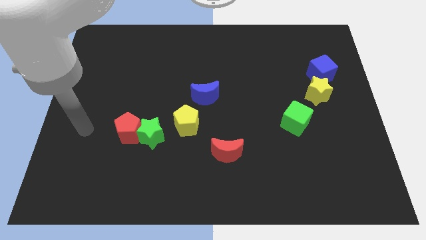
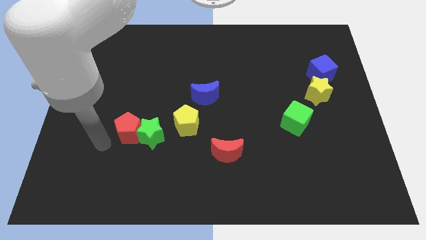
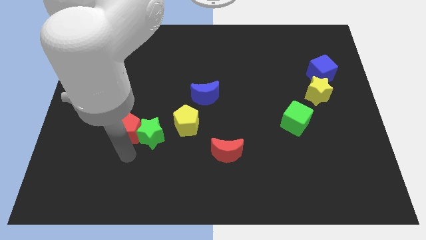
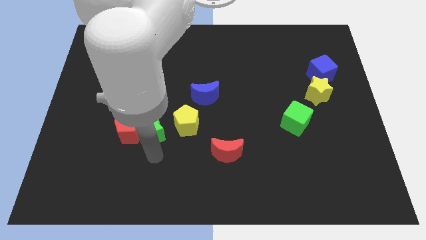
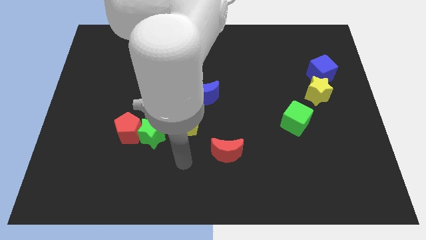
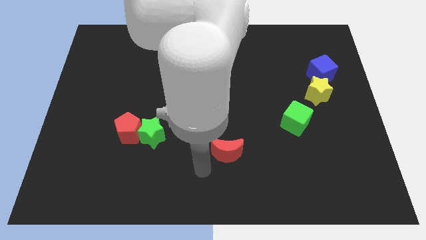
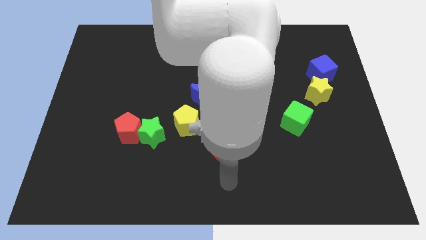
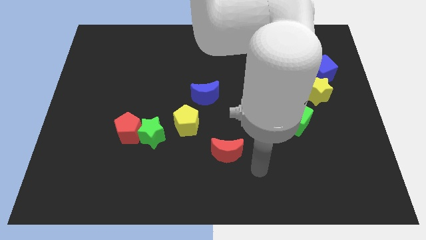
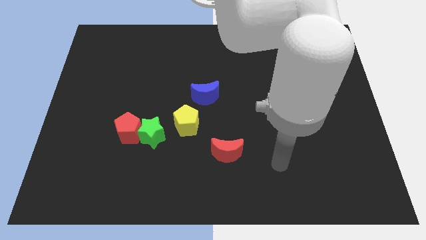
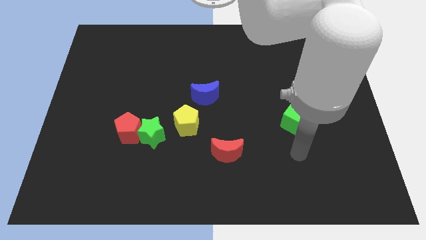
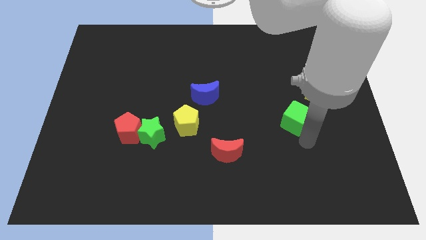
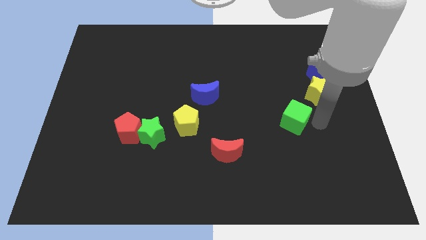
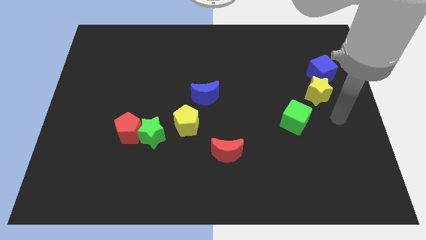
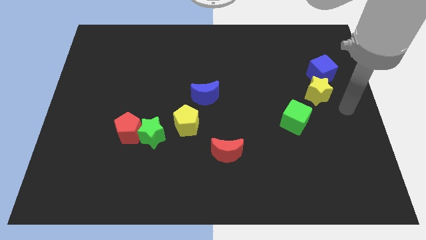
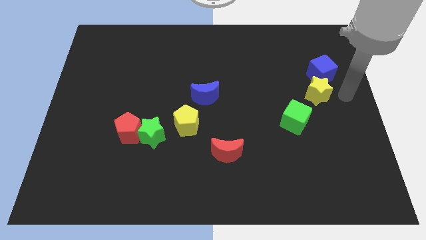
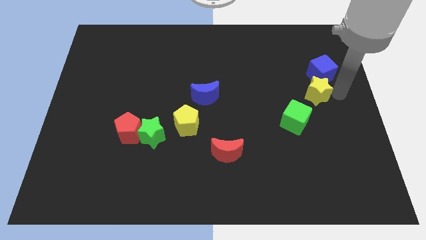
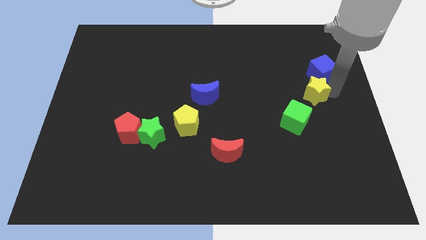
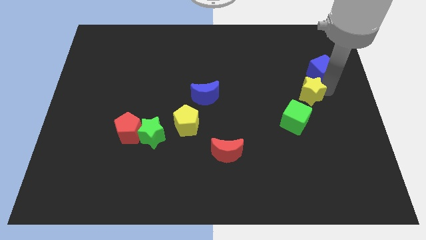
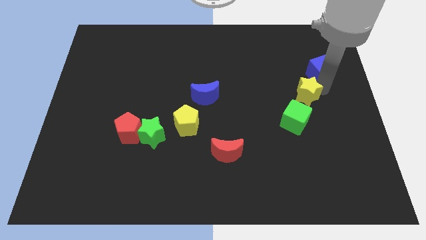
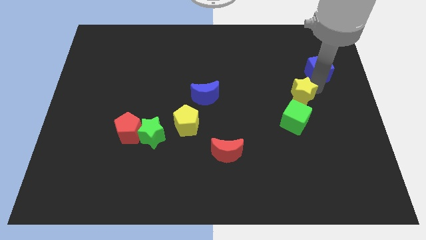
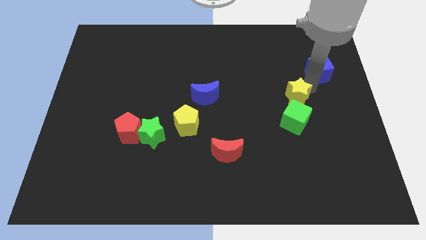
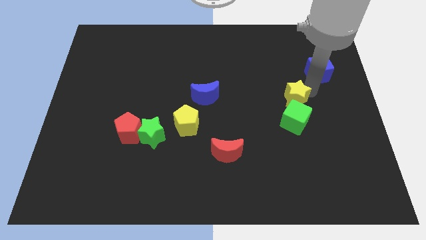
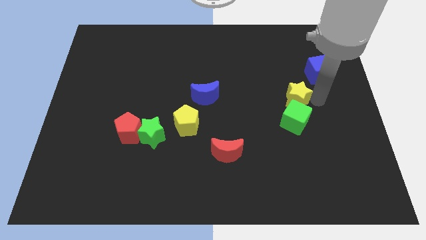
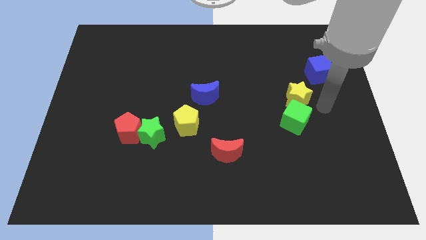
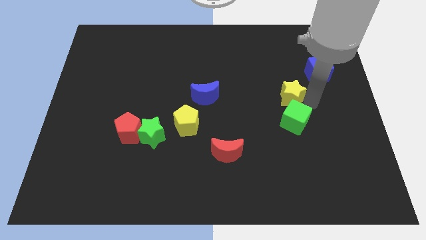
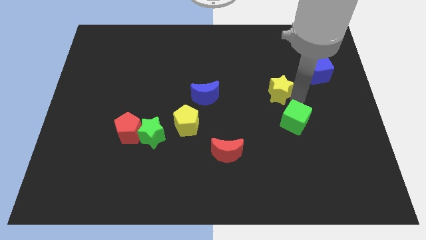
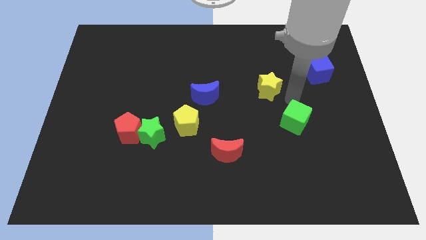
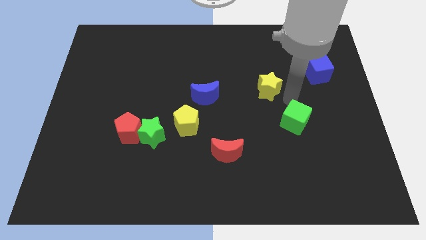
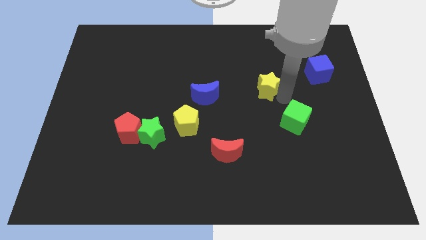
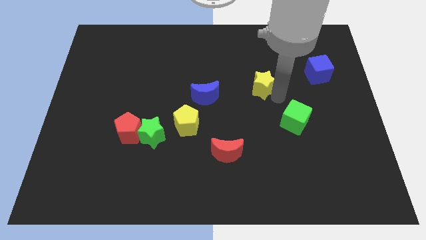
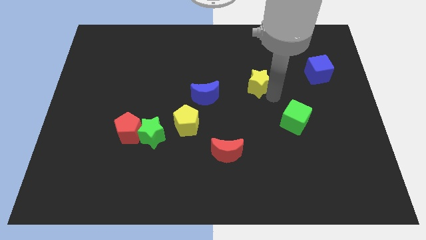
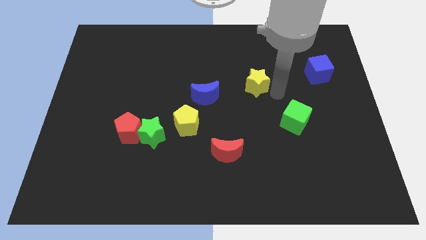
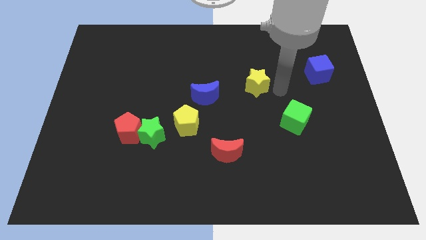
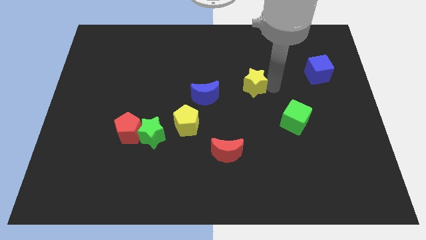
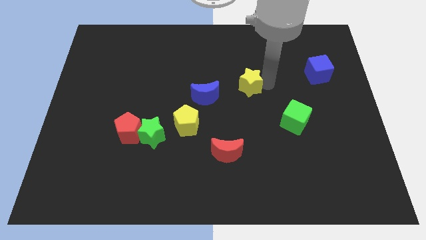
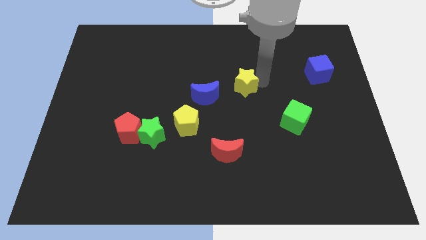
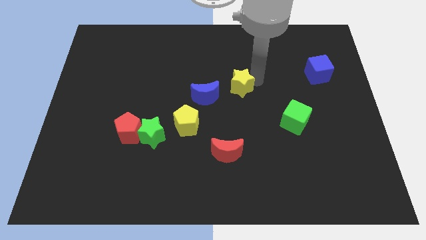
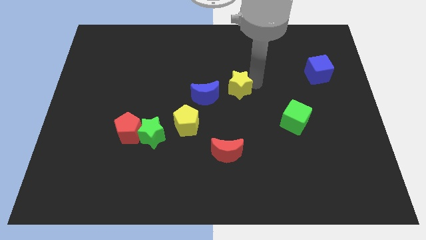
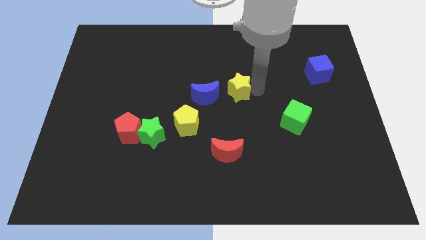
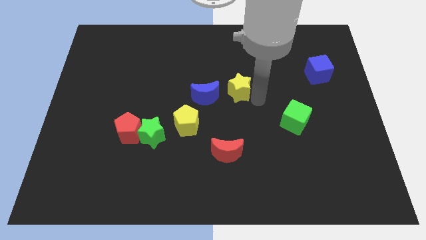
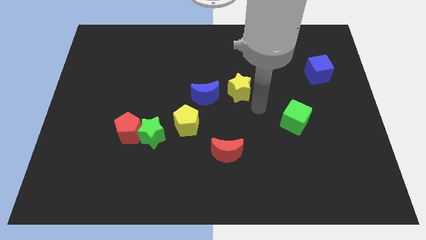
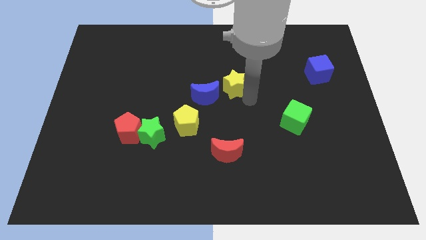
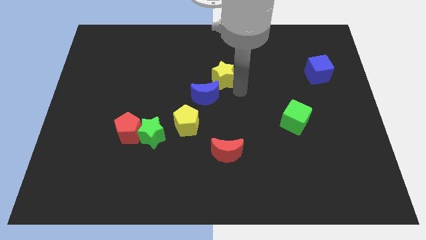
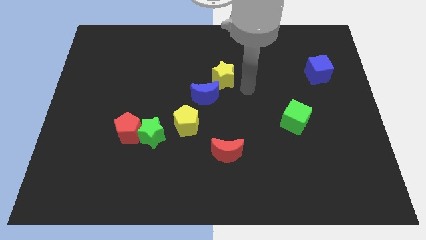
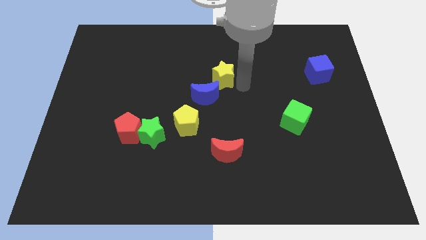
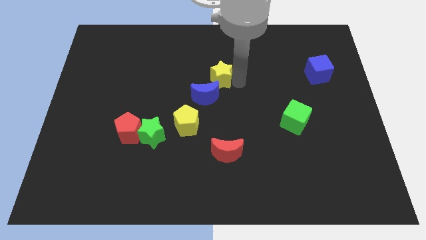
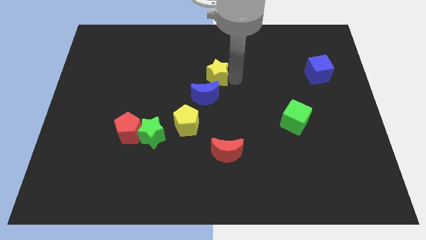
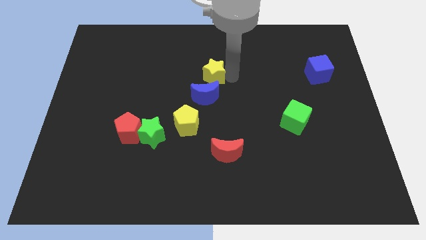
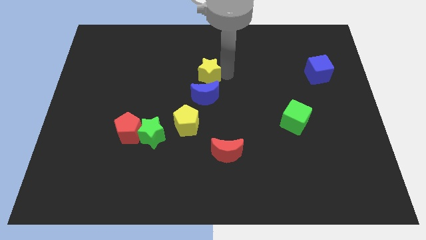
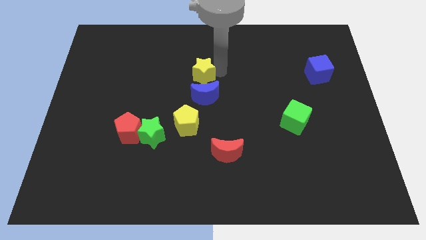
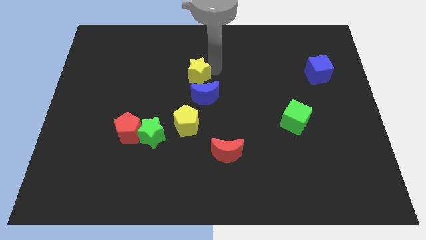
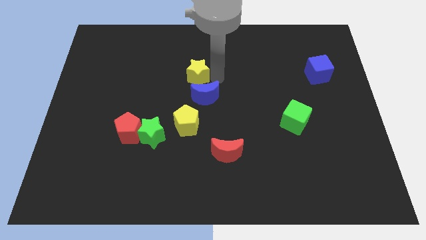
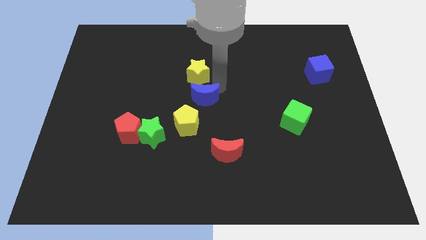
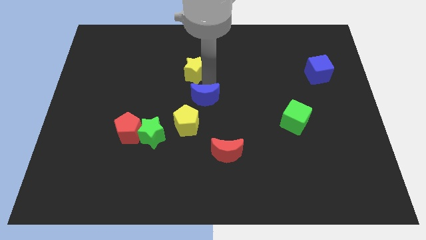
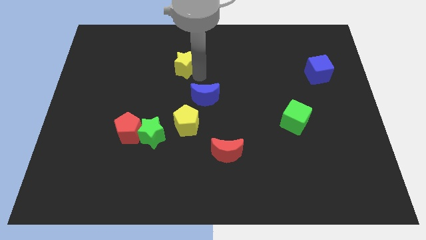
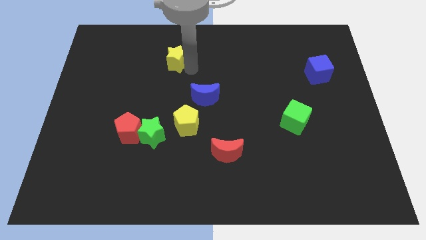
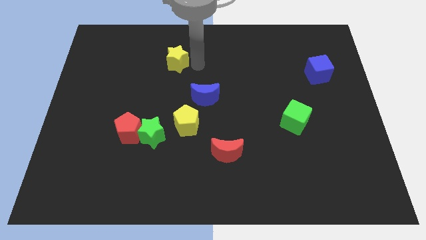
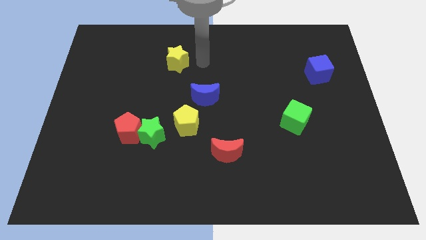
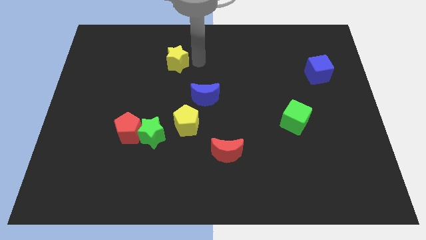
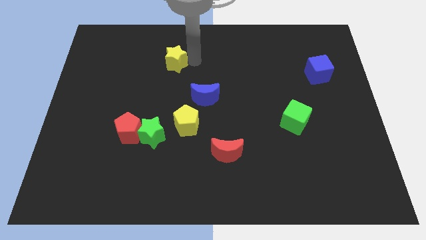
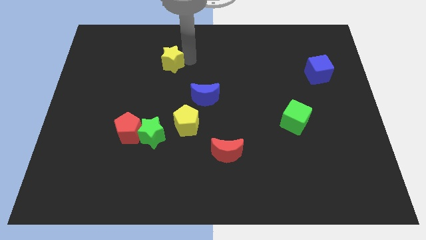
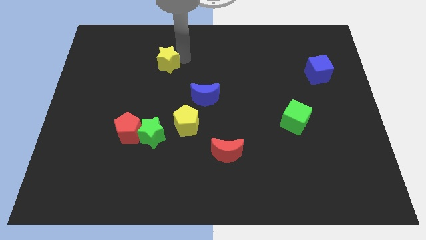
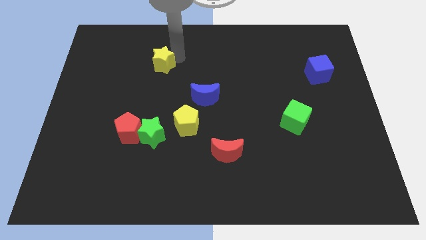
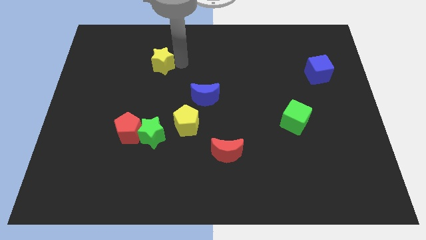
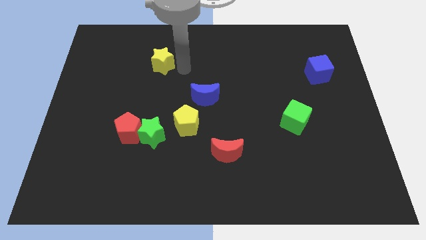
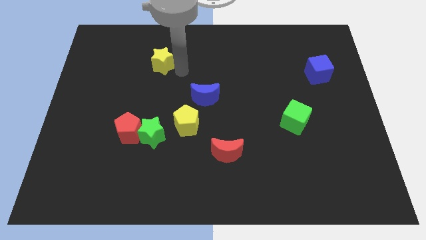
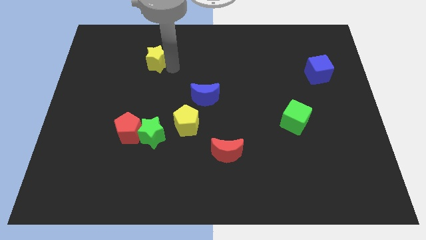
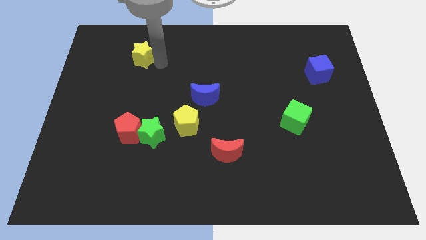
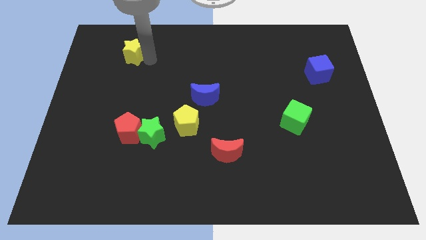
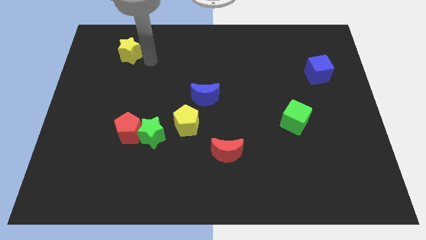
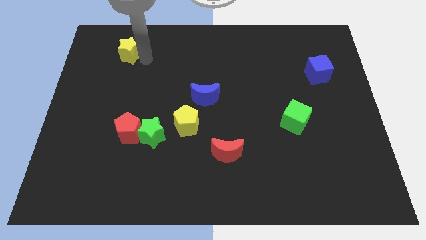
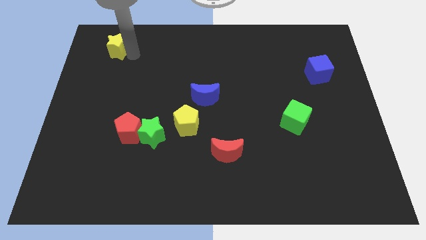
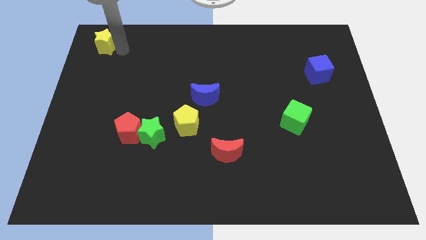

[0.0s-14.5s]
push the yellow star to the top left corner
